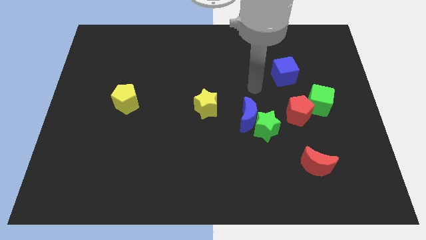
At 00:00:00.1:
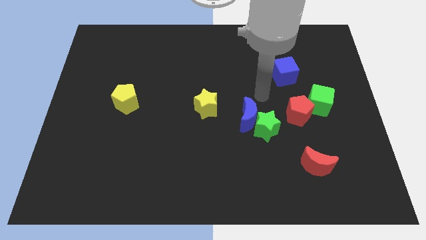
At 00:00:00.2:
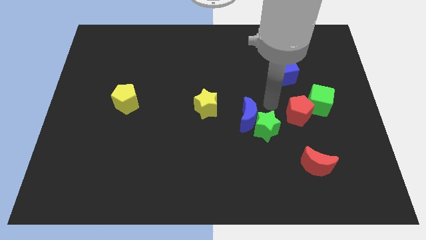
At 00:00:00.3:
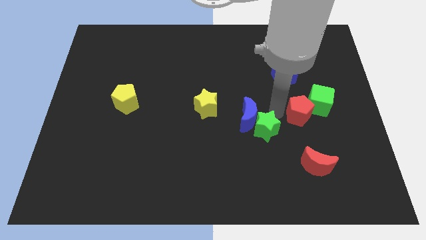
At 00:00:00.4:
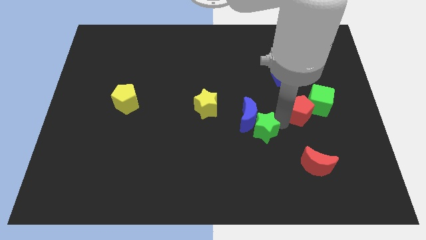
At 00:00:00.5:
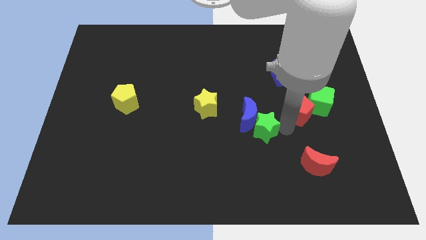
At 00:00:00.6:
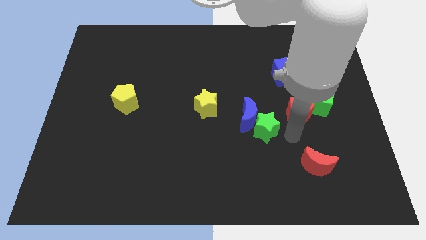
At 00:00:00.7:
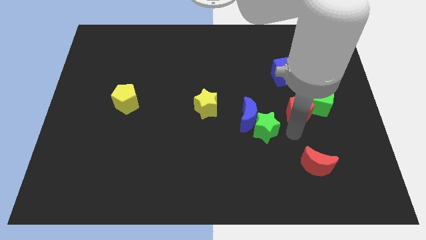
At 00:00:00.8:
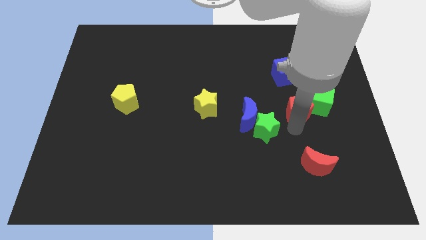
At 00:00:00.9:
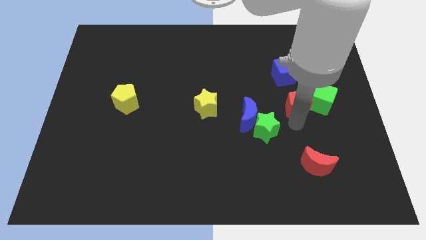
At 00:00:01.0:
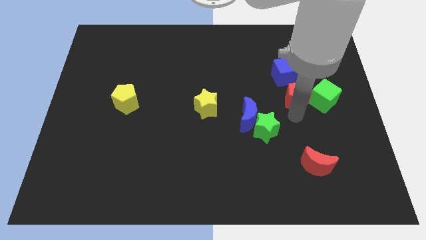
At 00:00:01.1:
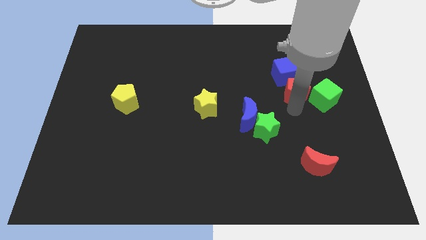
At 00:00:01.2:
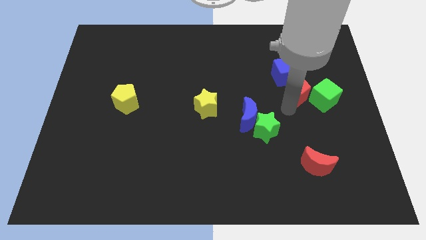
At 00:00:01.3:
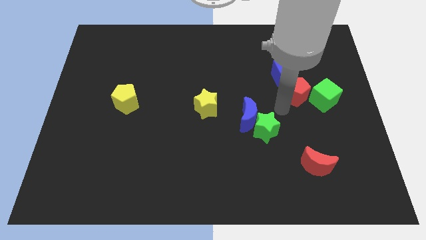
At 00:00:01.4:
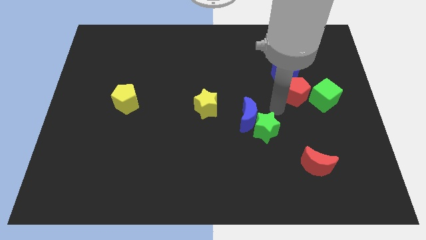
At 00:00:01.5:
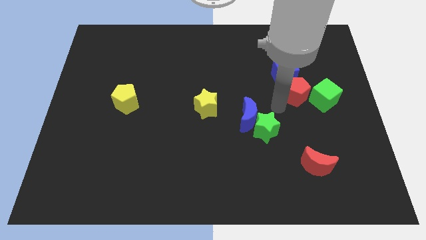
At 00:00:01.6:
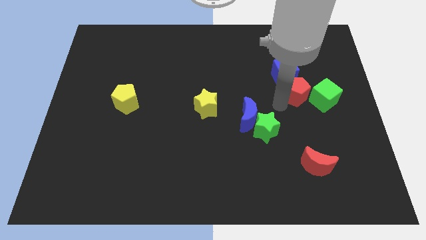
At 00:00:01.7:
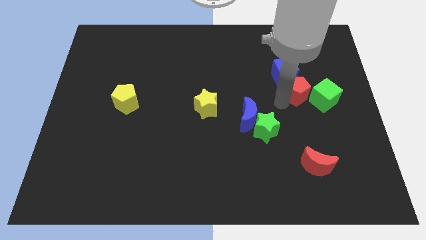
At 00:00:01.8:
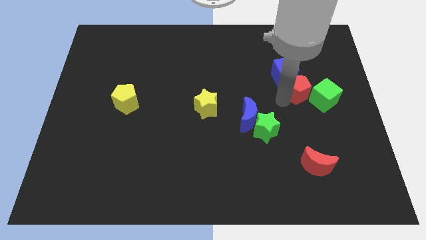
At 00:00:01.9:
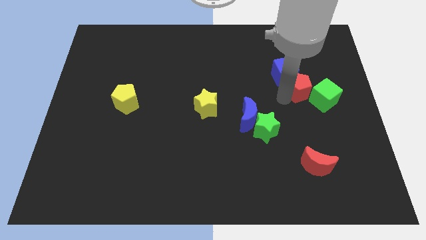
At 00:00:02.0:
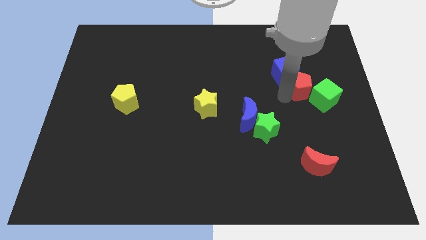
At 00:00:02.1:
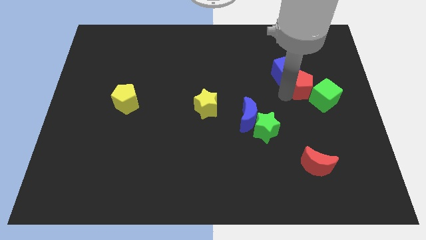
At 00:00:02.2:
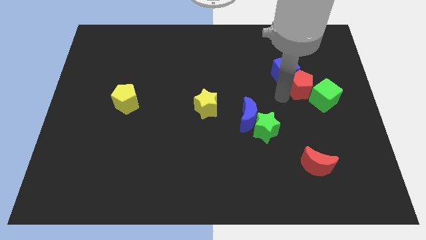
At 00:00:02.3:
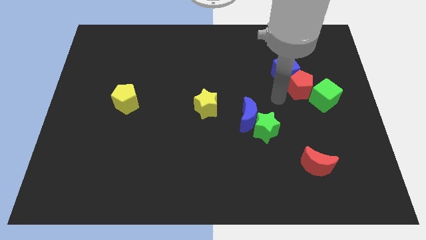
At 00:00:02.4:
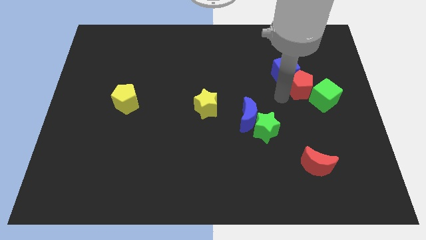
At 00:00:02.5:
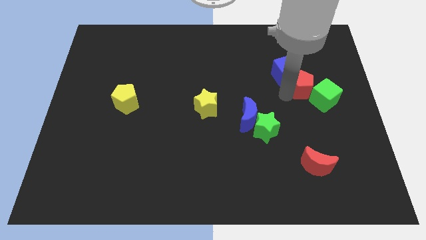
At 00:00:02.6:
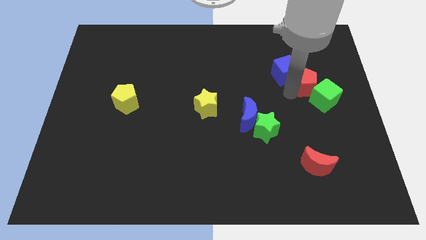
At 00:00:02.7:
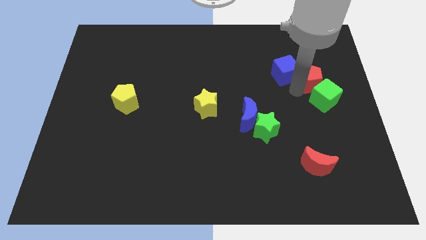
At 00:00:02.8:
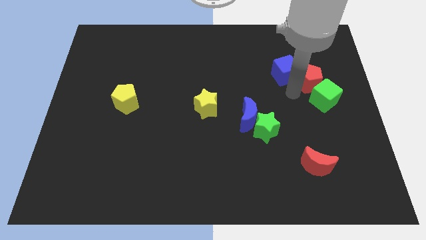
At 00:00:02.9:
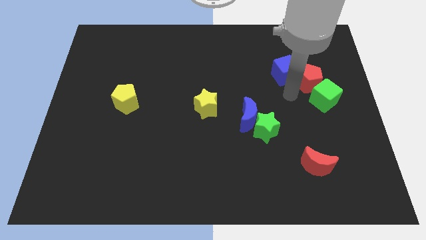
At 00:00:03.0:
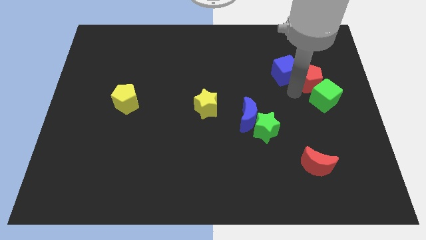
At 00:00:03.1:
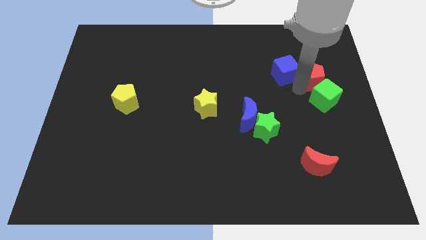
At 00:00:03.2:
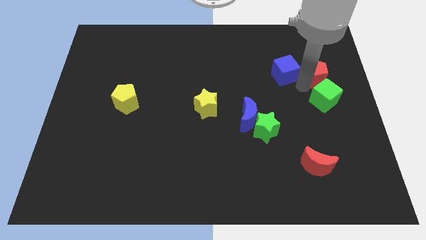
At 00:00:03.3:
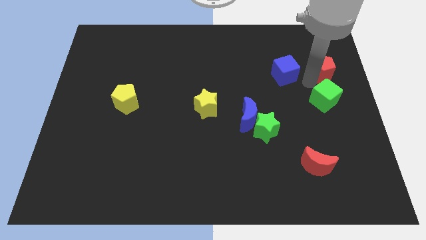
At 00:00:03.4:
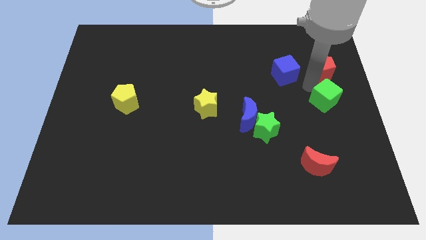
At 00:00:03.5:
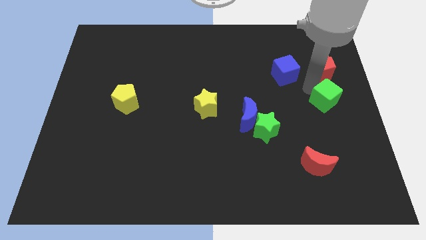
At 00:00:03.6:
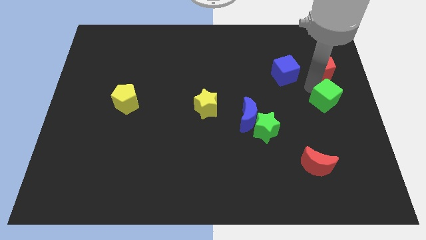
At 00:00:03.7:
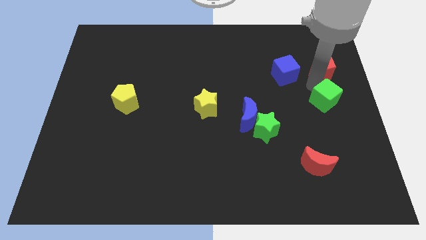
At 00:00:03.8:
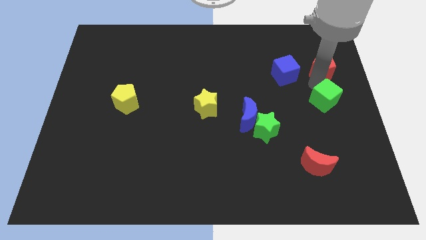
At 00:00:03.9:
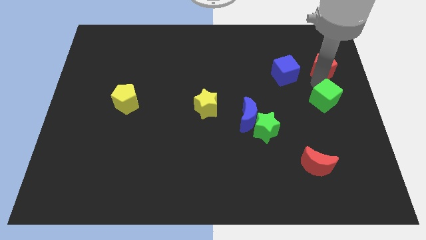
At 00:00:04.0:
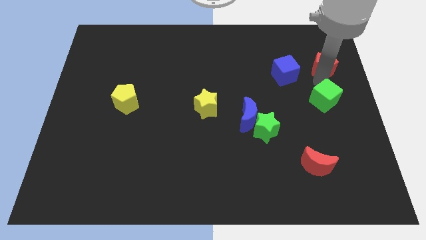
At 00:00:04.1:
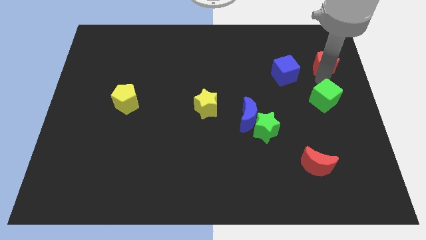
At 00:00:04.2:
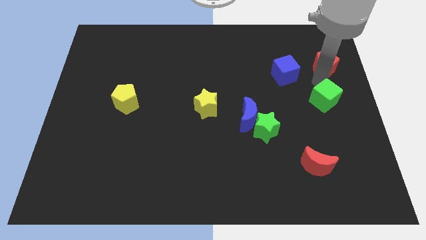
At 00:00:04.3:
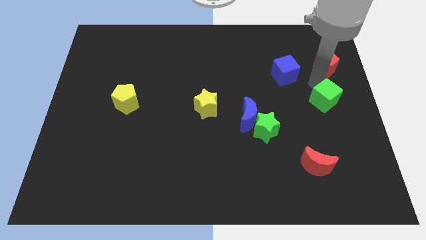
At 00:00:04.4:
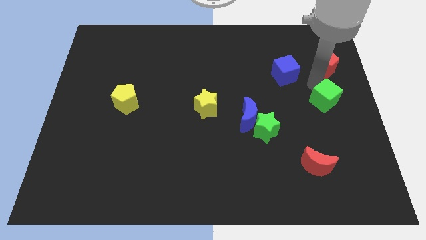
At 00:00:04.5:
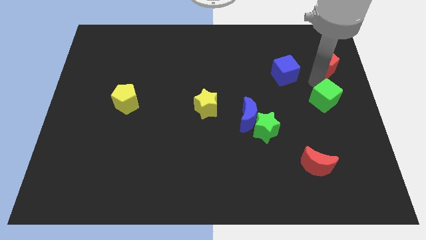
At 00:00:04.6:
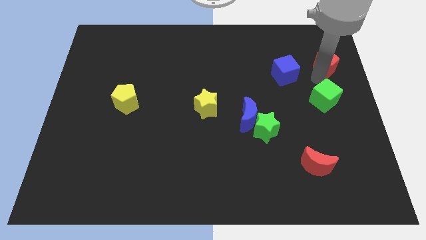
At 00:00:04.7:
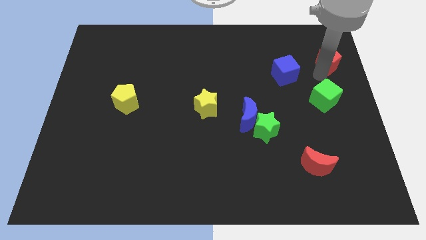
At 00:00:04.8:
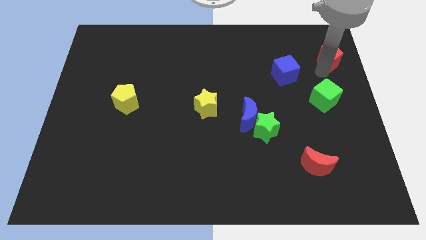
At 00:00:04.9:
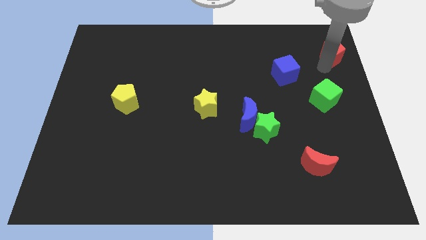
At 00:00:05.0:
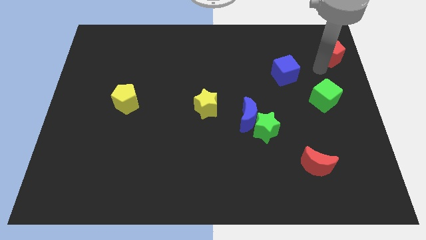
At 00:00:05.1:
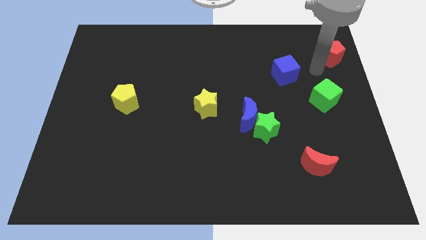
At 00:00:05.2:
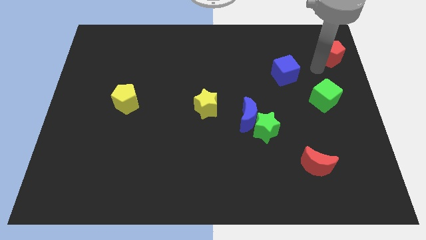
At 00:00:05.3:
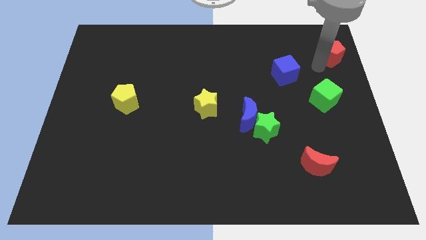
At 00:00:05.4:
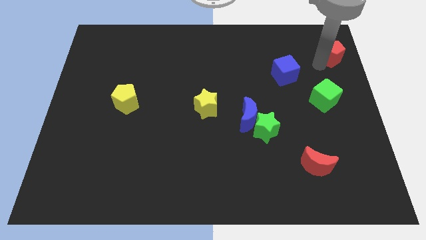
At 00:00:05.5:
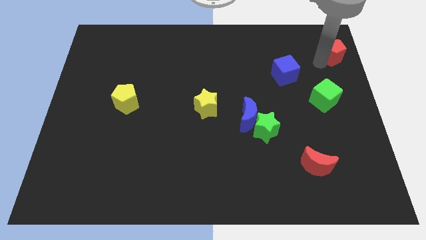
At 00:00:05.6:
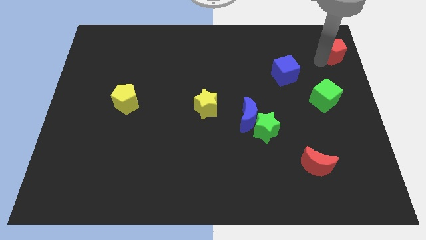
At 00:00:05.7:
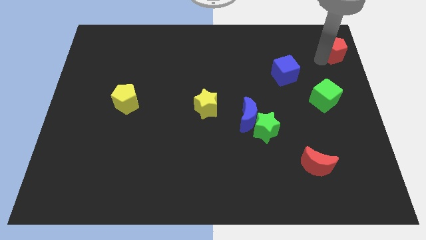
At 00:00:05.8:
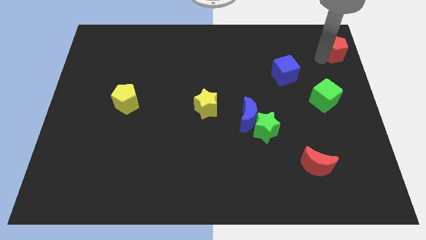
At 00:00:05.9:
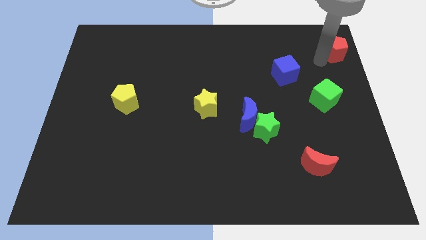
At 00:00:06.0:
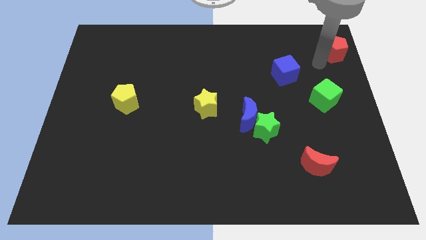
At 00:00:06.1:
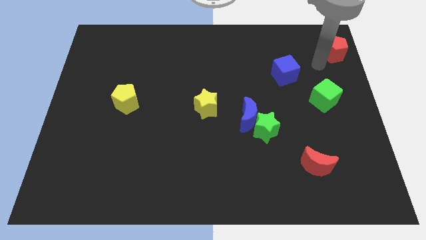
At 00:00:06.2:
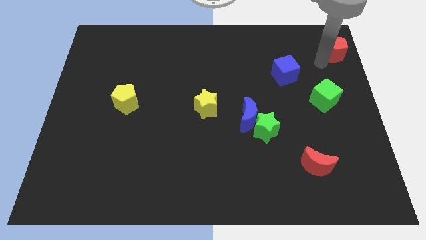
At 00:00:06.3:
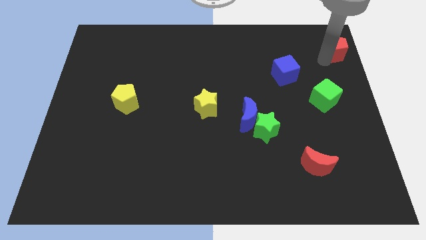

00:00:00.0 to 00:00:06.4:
put the red pentagon to the top right of the board

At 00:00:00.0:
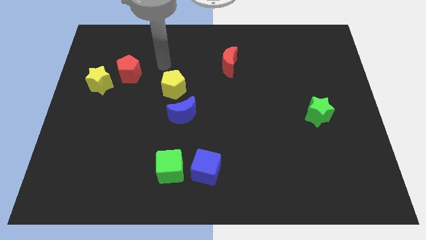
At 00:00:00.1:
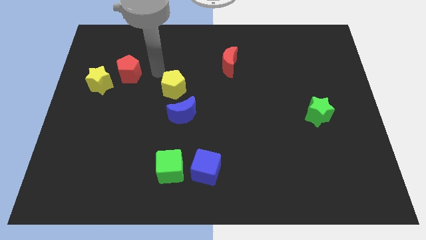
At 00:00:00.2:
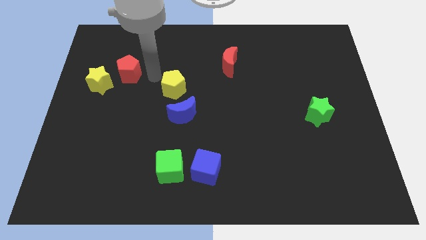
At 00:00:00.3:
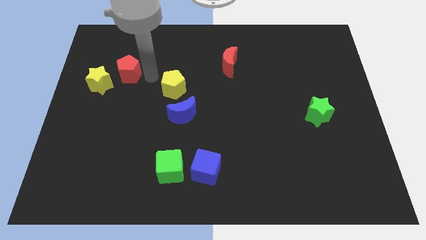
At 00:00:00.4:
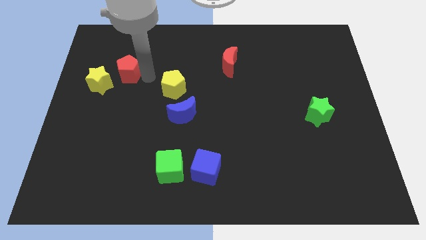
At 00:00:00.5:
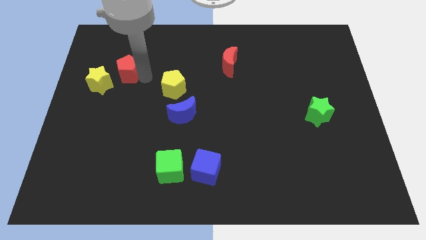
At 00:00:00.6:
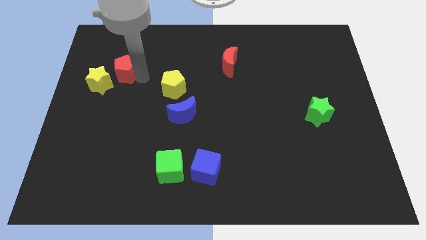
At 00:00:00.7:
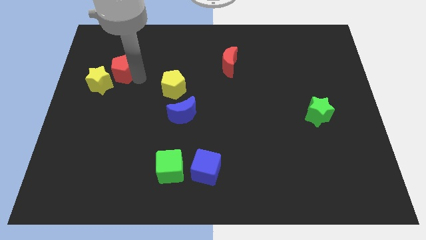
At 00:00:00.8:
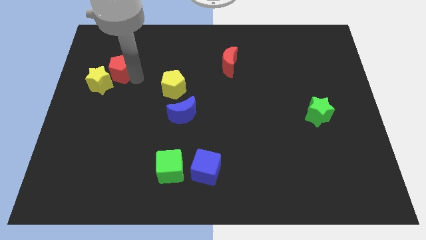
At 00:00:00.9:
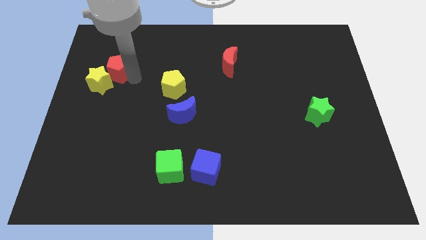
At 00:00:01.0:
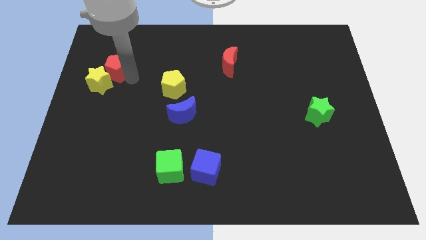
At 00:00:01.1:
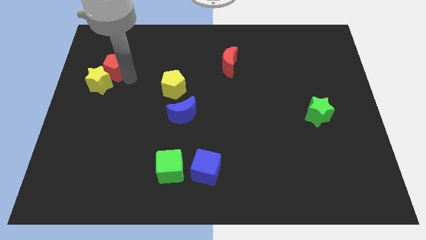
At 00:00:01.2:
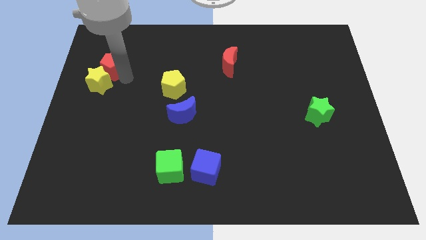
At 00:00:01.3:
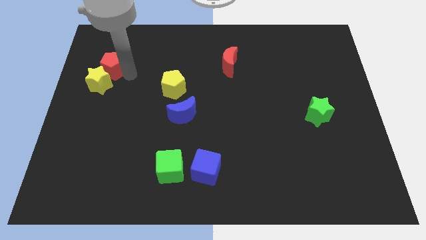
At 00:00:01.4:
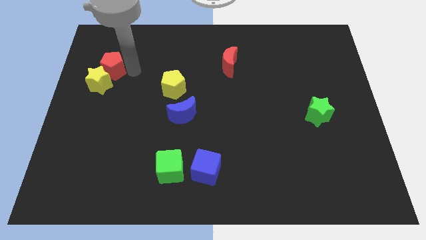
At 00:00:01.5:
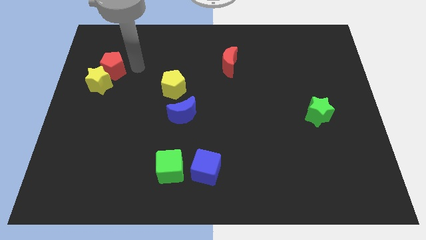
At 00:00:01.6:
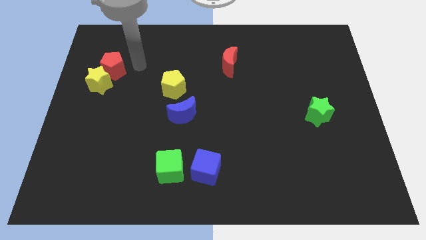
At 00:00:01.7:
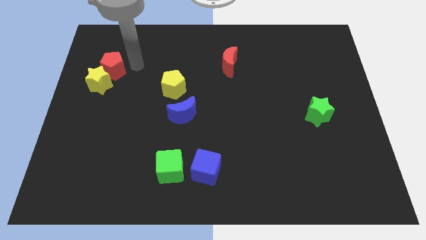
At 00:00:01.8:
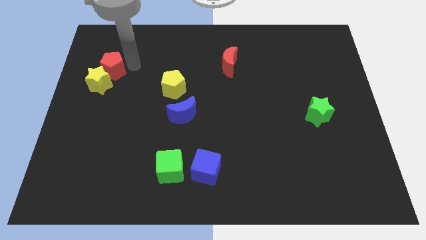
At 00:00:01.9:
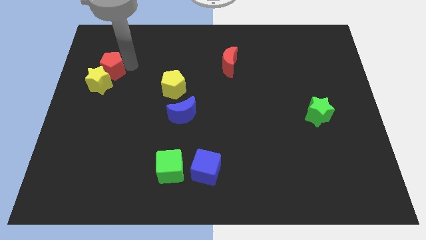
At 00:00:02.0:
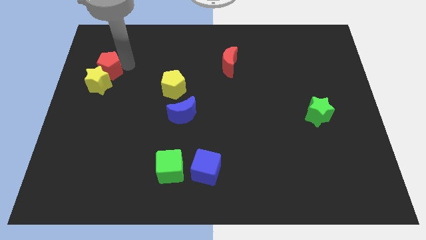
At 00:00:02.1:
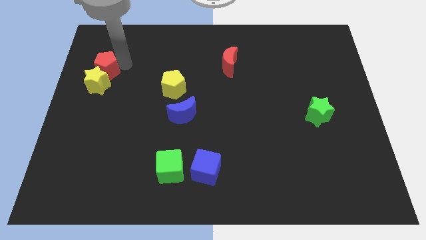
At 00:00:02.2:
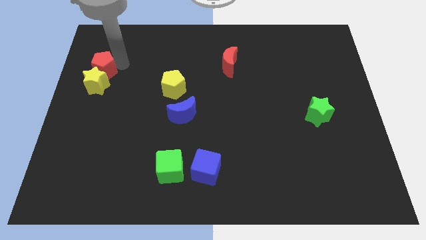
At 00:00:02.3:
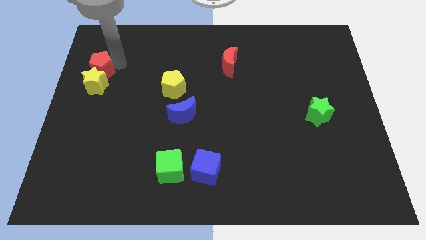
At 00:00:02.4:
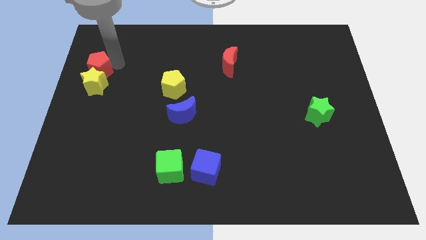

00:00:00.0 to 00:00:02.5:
push the red pentagon to the center left
